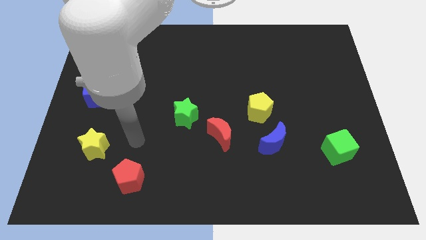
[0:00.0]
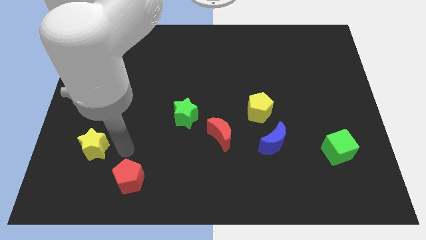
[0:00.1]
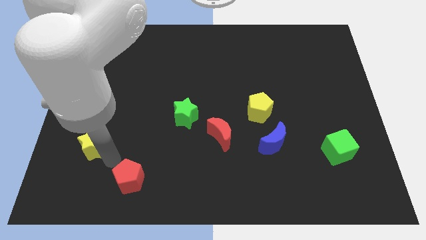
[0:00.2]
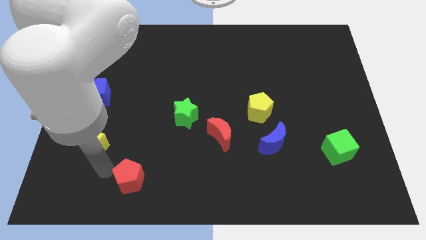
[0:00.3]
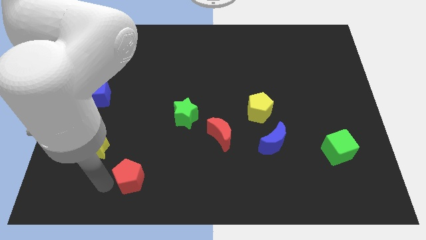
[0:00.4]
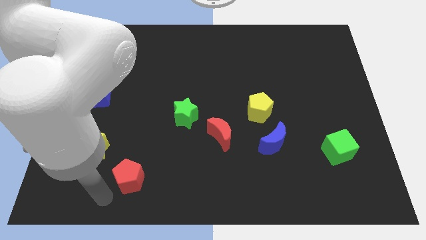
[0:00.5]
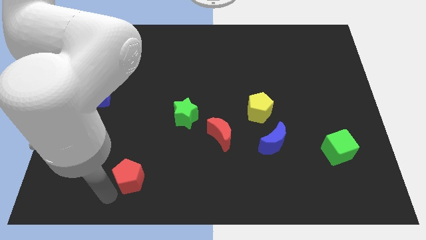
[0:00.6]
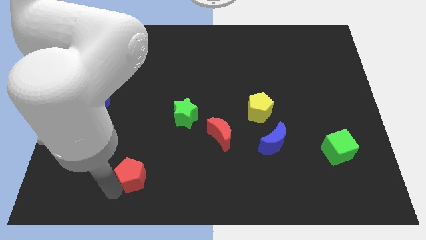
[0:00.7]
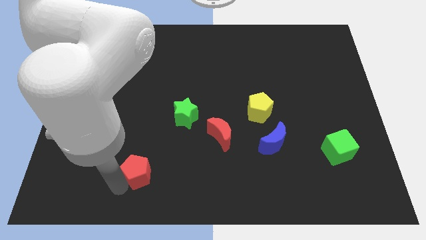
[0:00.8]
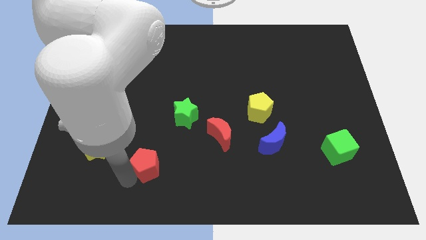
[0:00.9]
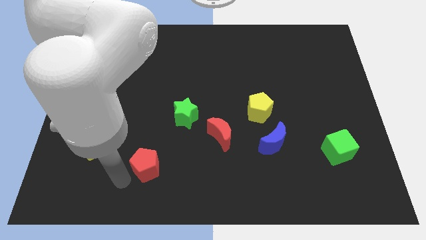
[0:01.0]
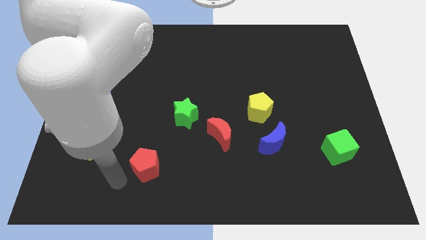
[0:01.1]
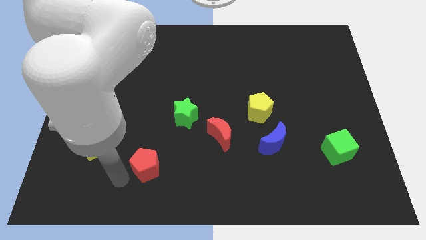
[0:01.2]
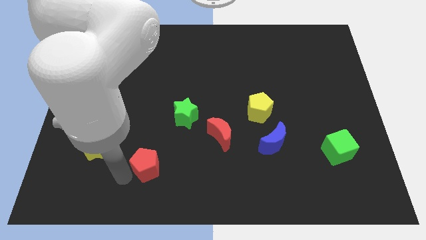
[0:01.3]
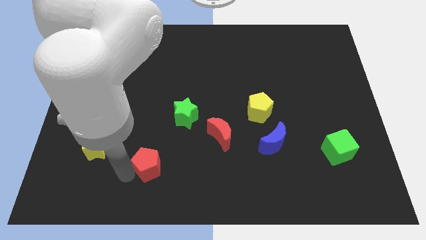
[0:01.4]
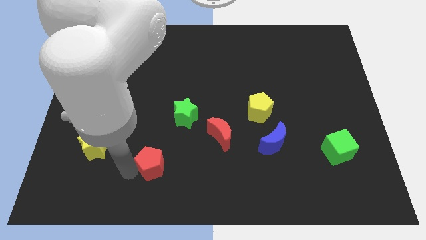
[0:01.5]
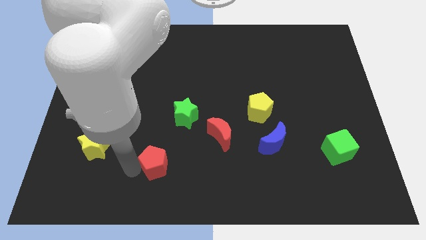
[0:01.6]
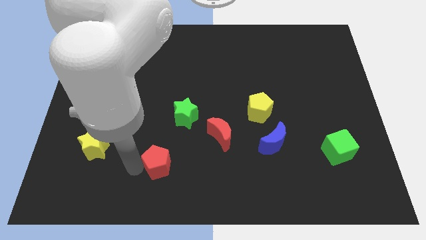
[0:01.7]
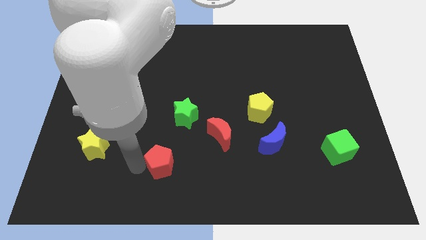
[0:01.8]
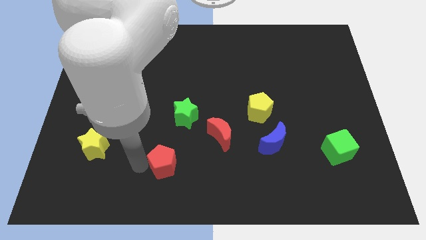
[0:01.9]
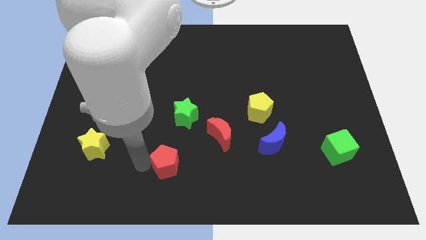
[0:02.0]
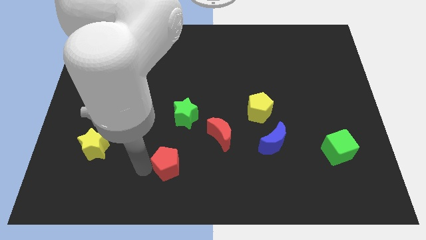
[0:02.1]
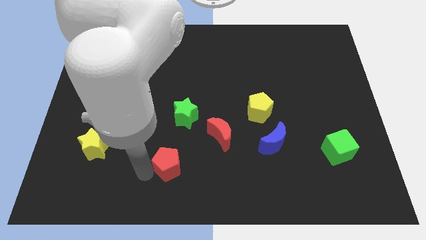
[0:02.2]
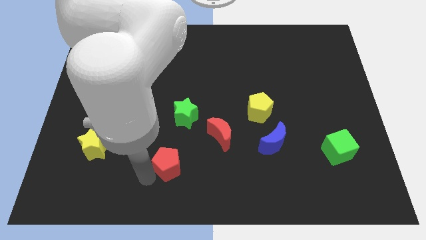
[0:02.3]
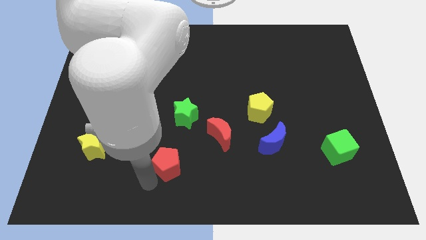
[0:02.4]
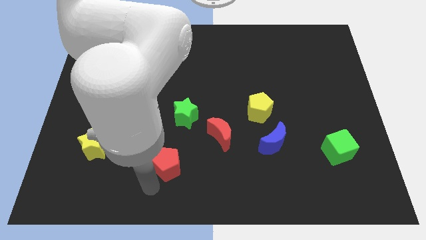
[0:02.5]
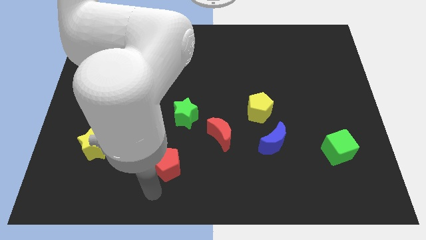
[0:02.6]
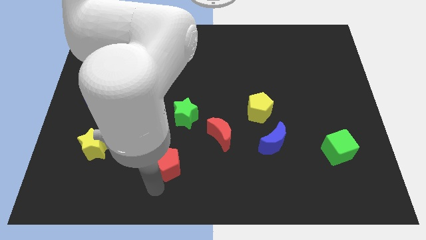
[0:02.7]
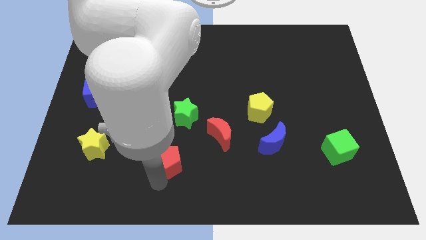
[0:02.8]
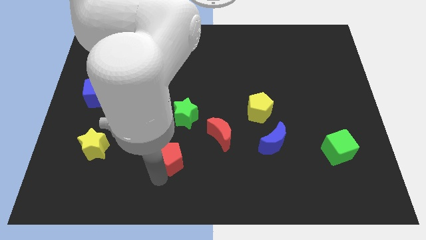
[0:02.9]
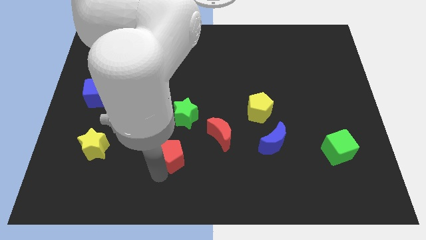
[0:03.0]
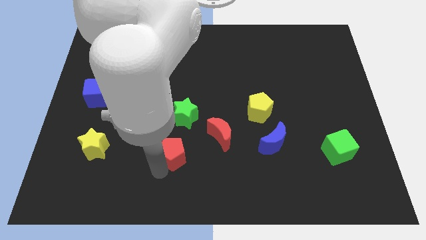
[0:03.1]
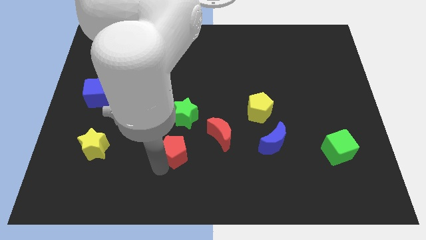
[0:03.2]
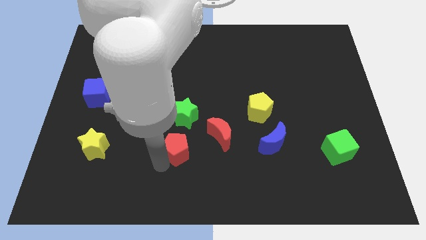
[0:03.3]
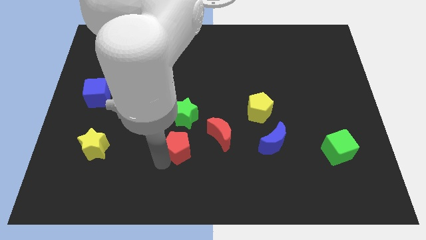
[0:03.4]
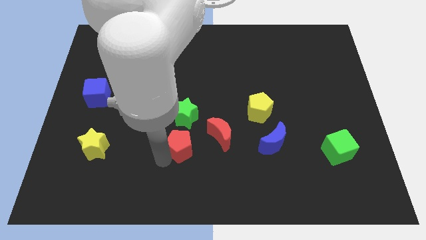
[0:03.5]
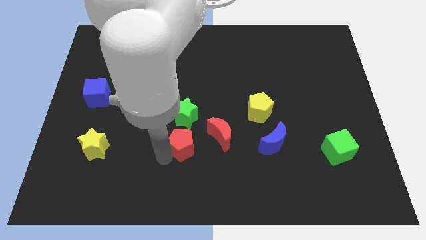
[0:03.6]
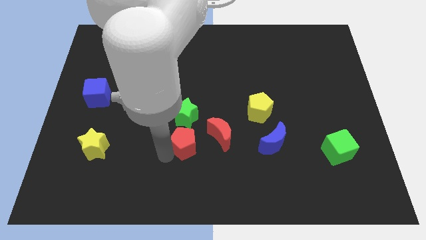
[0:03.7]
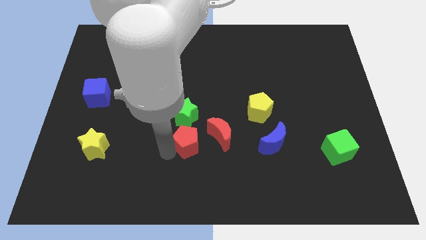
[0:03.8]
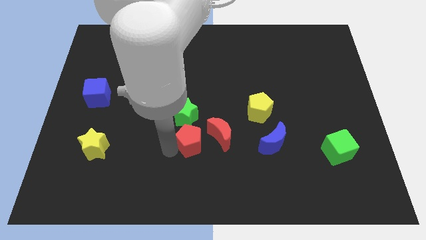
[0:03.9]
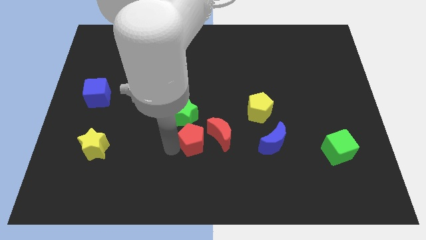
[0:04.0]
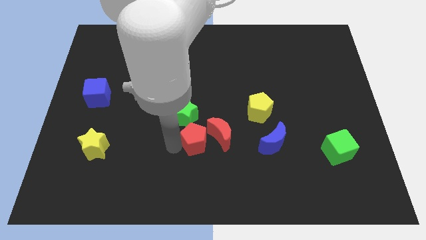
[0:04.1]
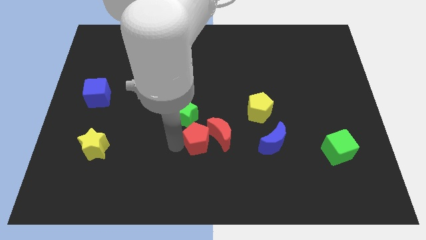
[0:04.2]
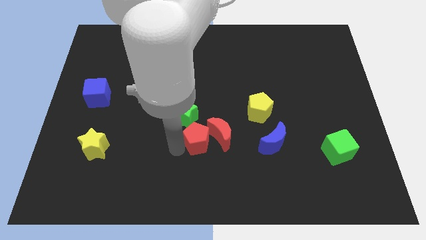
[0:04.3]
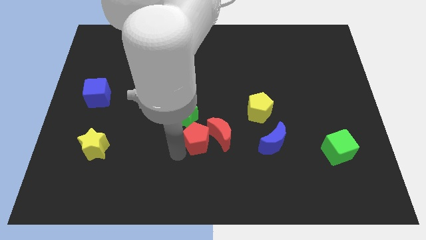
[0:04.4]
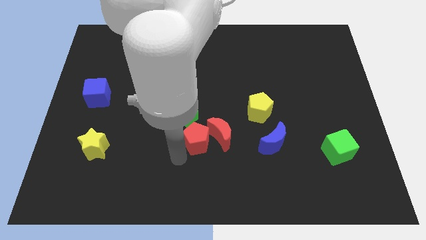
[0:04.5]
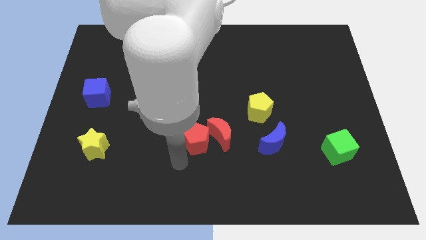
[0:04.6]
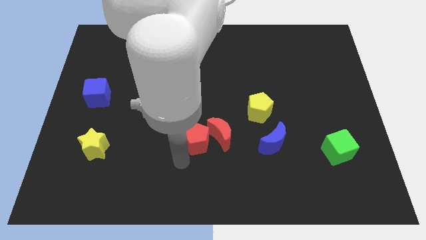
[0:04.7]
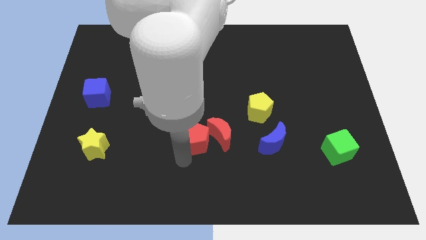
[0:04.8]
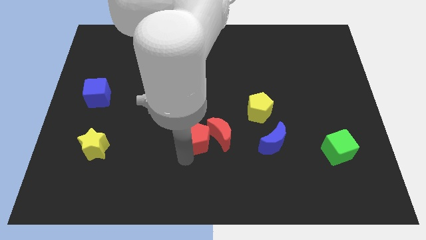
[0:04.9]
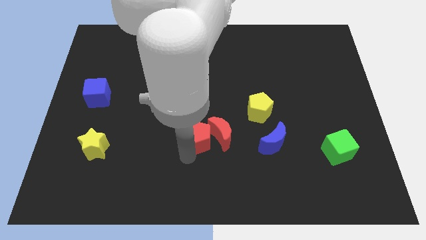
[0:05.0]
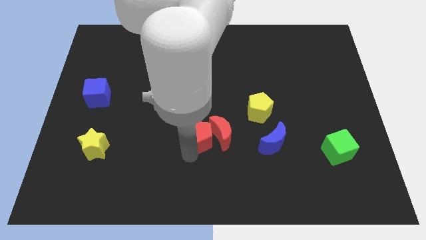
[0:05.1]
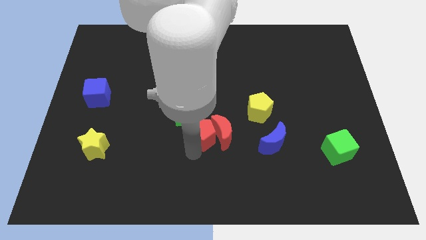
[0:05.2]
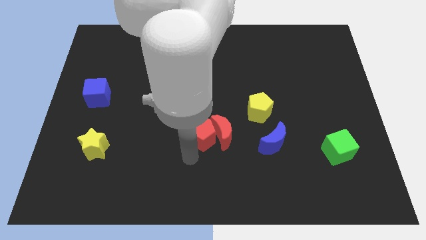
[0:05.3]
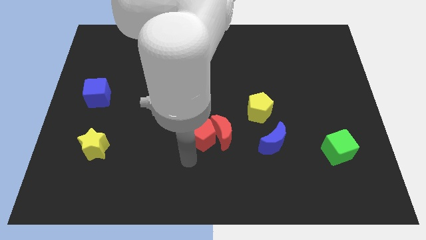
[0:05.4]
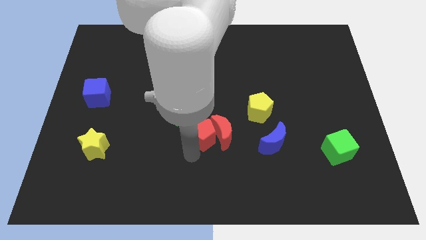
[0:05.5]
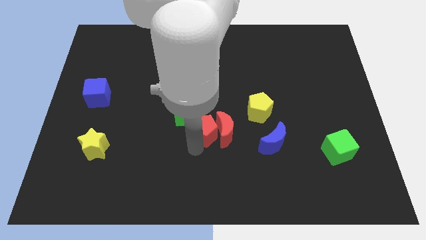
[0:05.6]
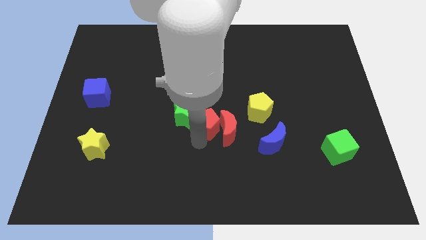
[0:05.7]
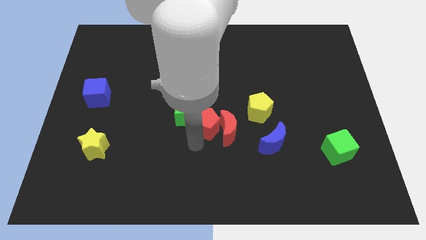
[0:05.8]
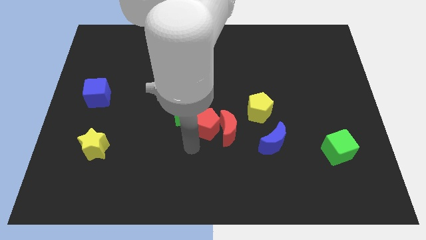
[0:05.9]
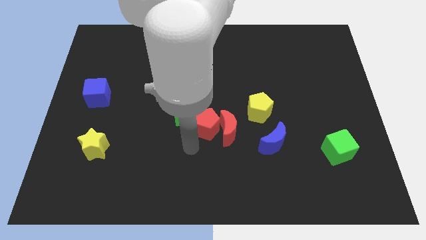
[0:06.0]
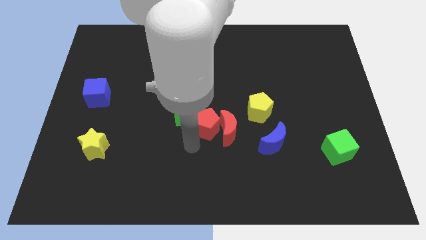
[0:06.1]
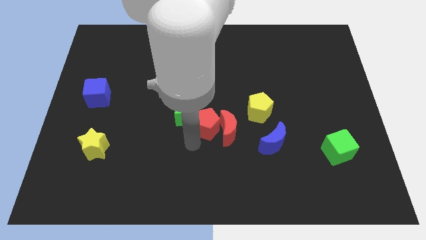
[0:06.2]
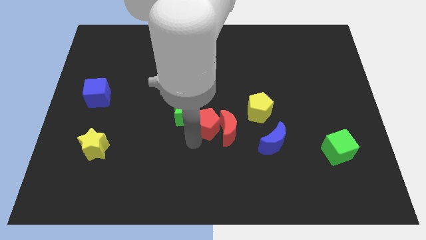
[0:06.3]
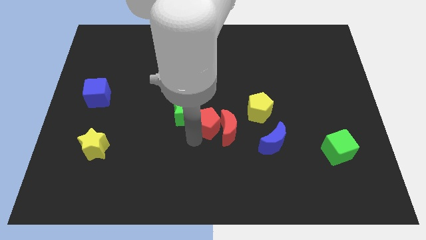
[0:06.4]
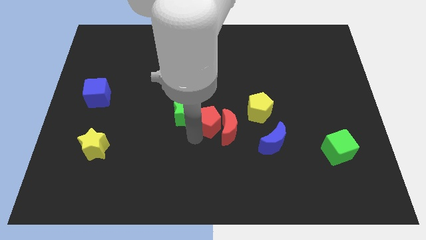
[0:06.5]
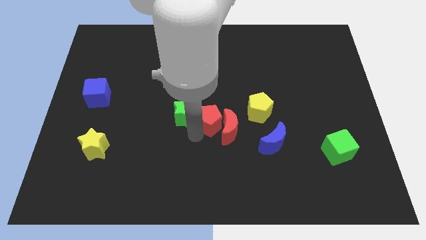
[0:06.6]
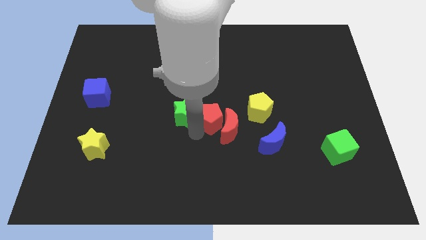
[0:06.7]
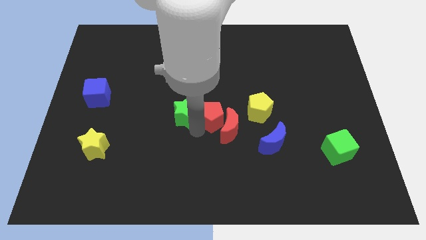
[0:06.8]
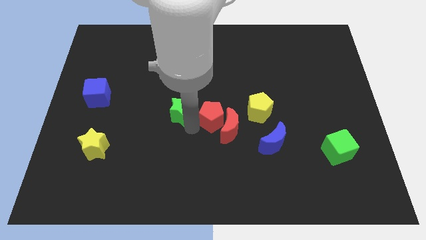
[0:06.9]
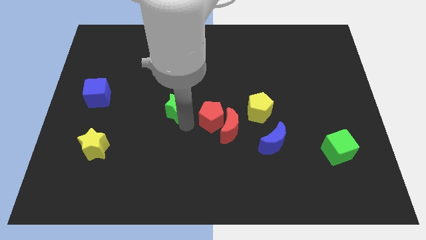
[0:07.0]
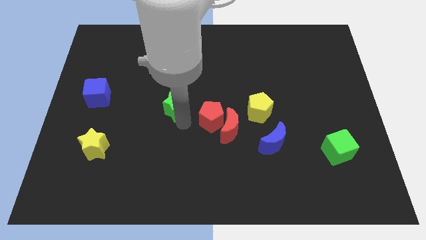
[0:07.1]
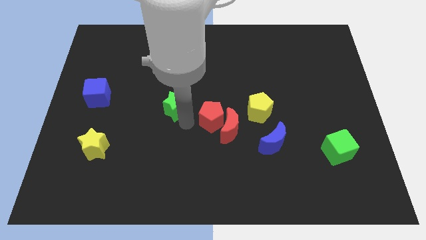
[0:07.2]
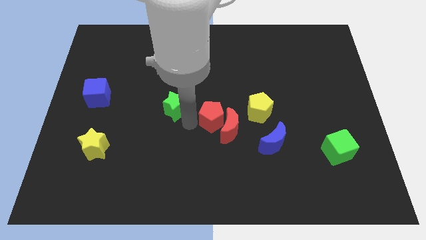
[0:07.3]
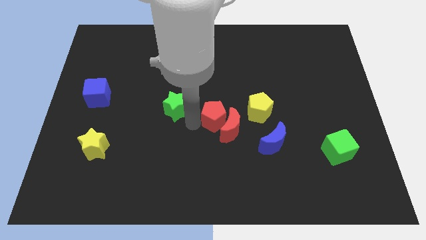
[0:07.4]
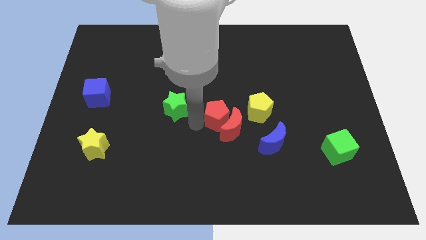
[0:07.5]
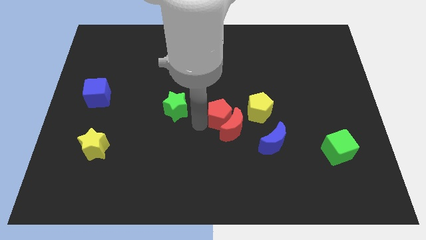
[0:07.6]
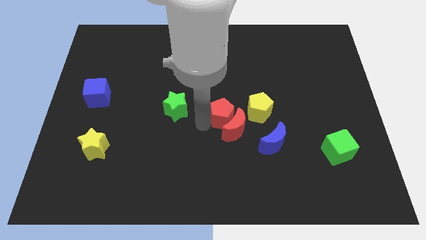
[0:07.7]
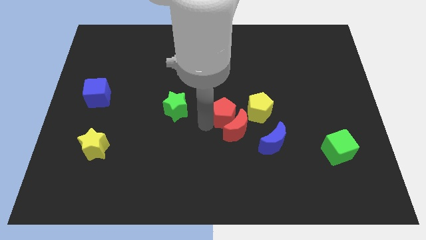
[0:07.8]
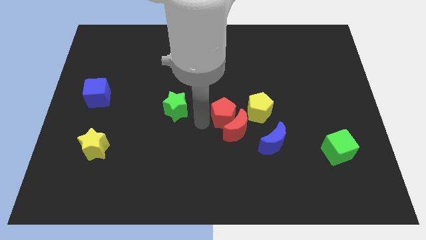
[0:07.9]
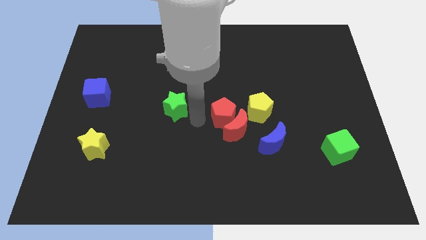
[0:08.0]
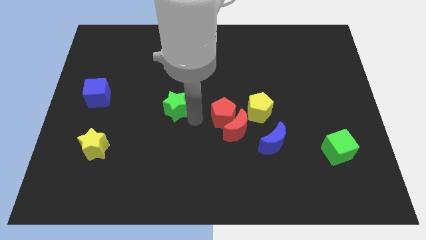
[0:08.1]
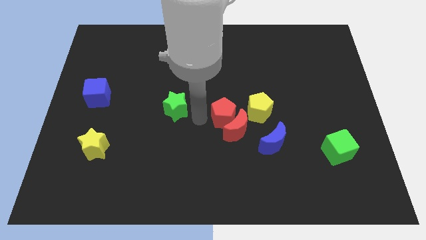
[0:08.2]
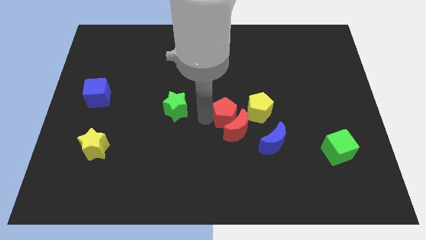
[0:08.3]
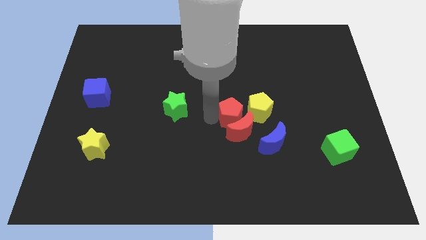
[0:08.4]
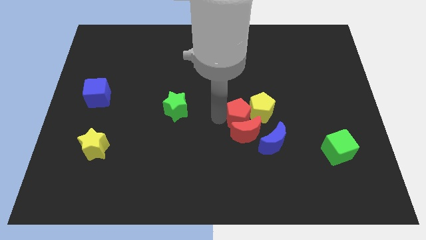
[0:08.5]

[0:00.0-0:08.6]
push the red pentagon towards the yellow pentagon
